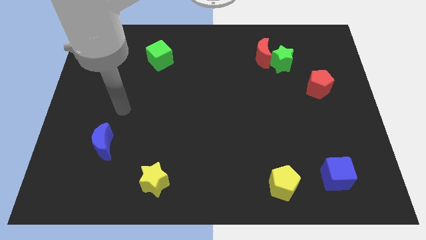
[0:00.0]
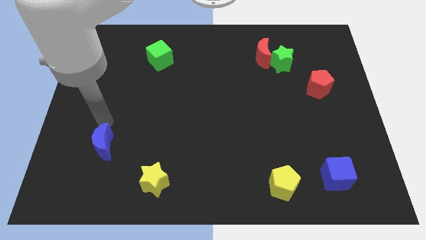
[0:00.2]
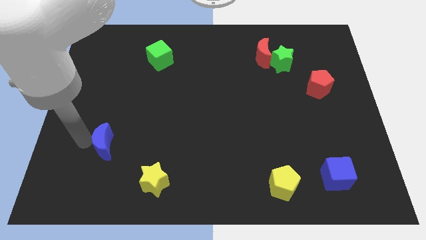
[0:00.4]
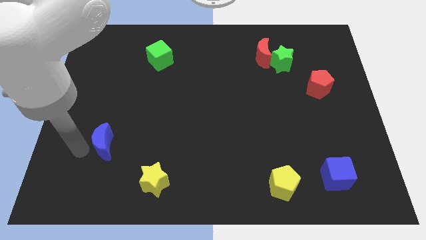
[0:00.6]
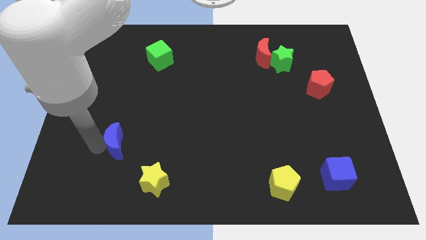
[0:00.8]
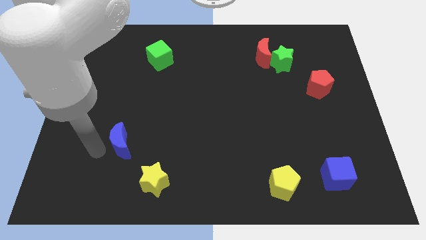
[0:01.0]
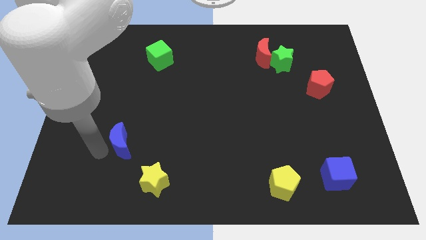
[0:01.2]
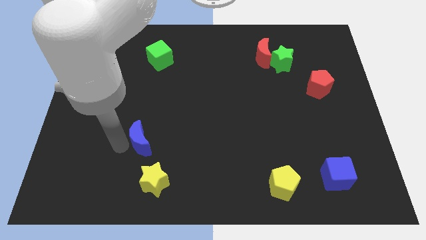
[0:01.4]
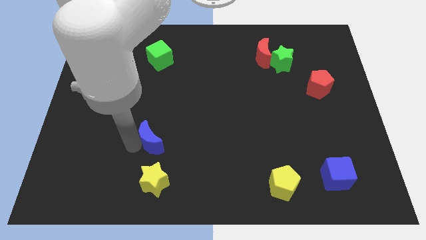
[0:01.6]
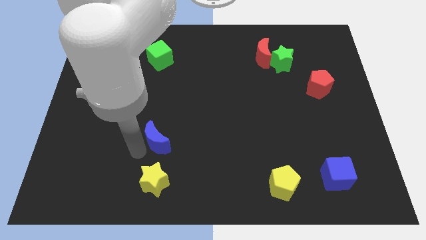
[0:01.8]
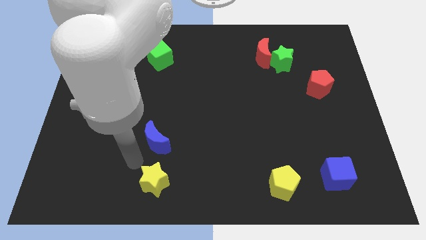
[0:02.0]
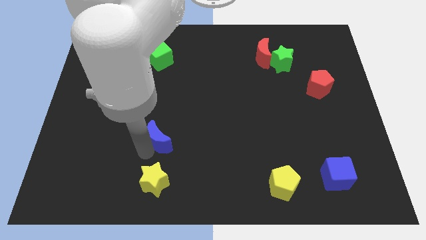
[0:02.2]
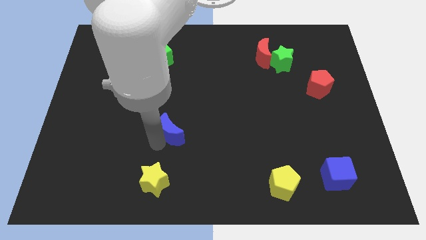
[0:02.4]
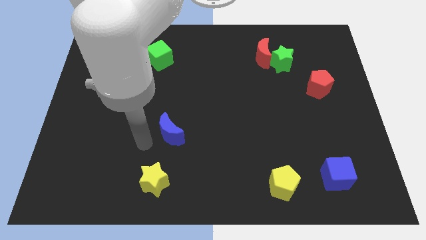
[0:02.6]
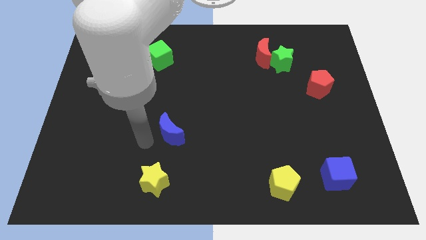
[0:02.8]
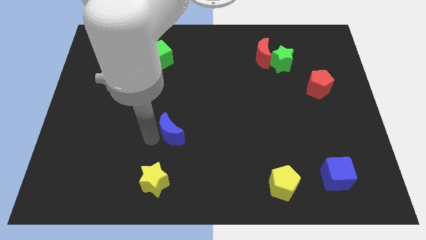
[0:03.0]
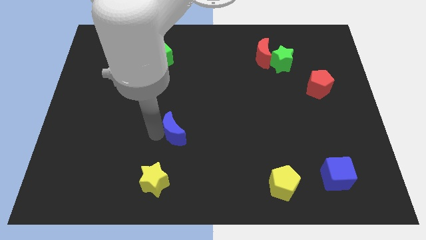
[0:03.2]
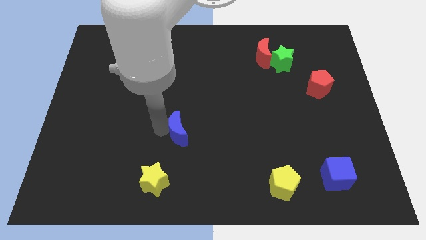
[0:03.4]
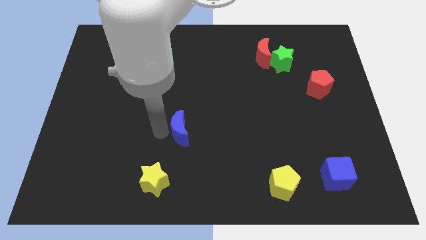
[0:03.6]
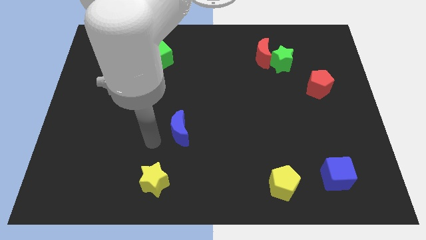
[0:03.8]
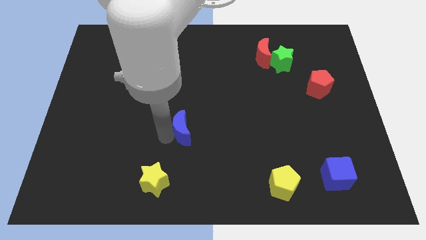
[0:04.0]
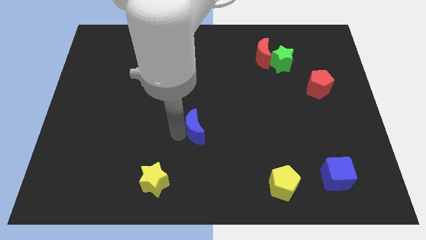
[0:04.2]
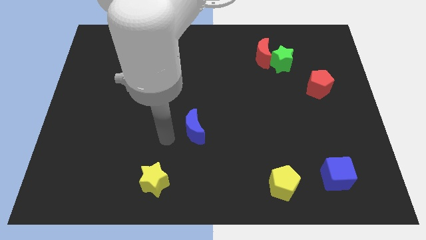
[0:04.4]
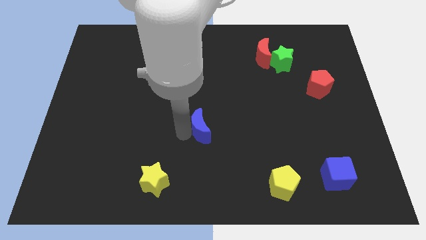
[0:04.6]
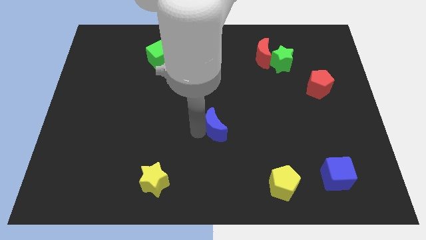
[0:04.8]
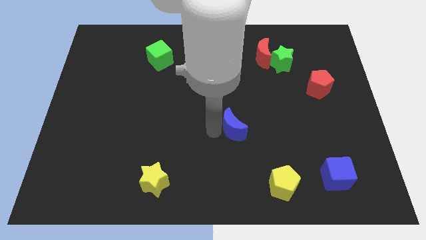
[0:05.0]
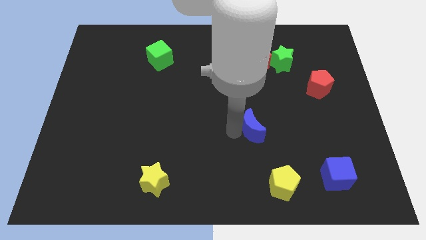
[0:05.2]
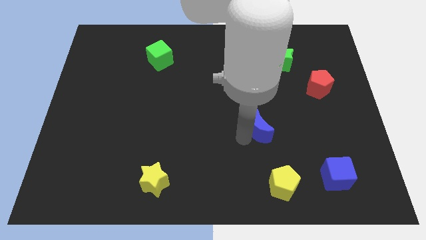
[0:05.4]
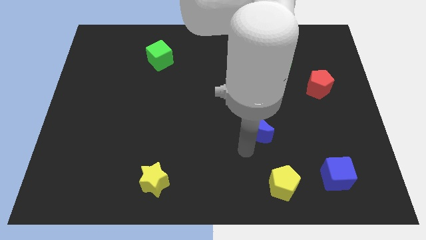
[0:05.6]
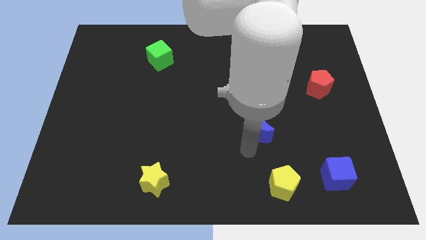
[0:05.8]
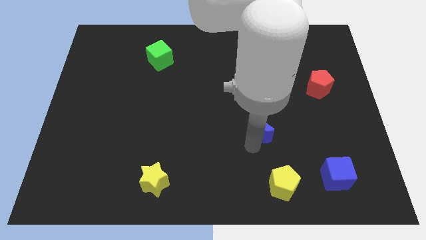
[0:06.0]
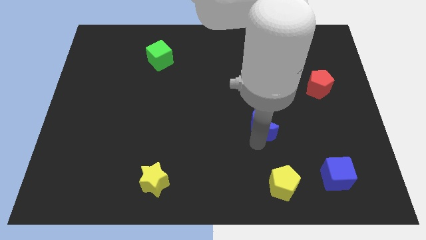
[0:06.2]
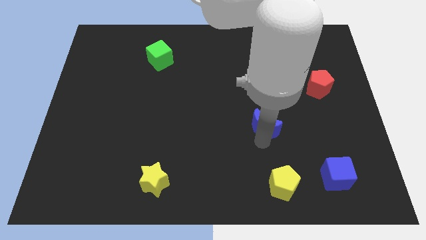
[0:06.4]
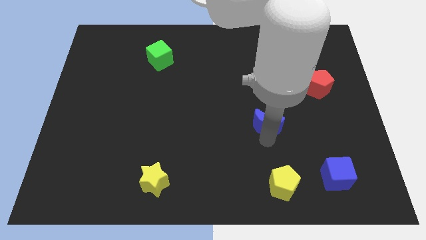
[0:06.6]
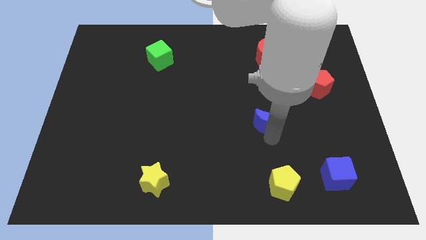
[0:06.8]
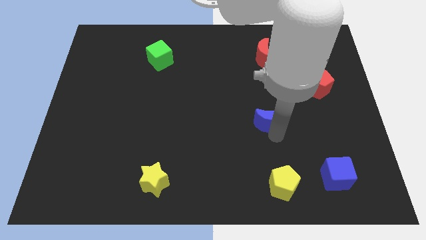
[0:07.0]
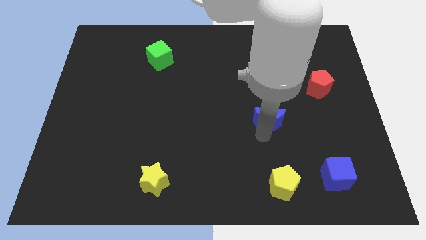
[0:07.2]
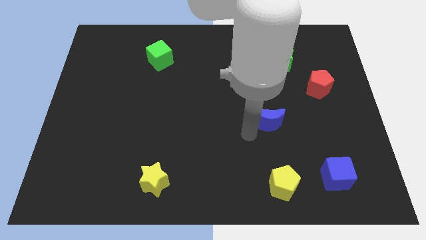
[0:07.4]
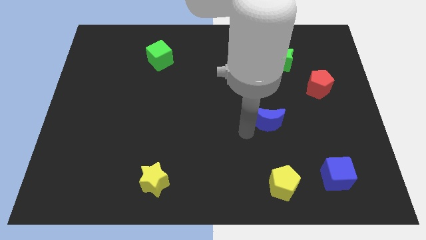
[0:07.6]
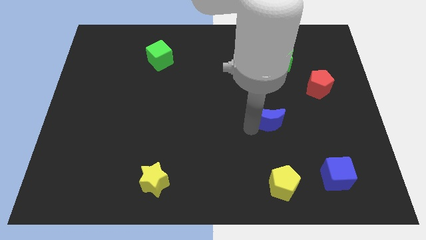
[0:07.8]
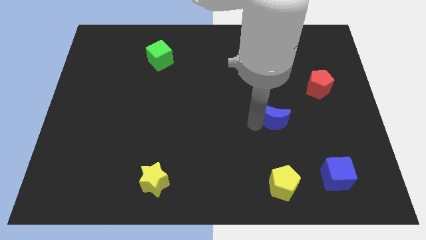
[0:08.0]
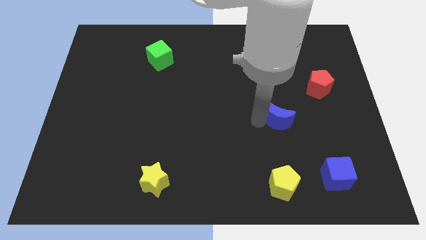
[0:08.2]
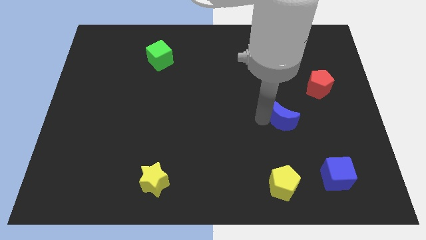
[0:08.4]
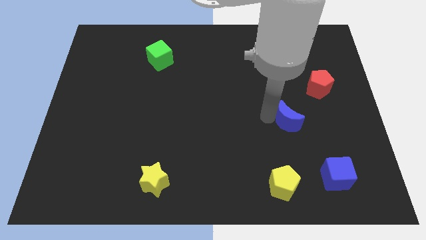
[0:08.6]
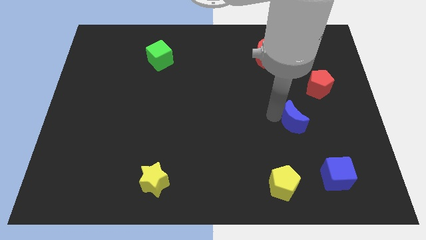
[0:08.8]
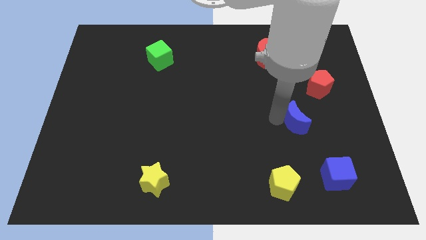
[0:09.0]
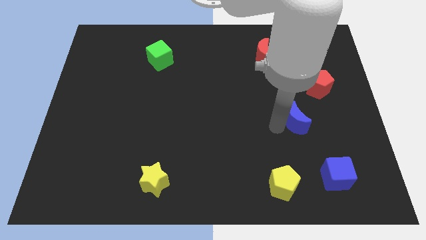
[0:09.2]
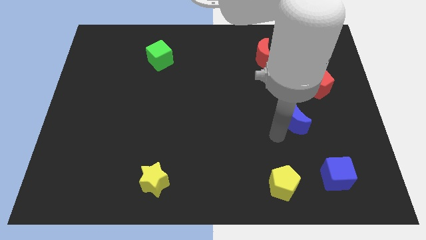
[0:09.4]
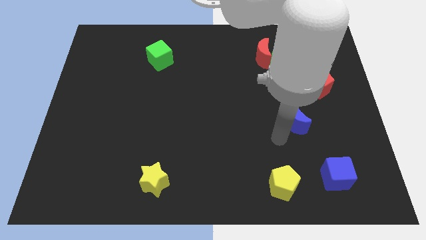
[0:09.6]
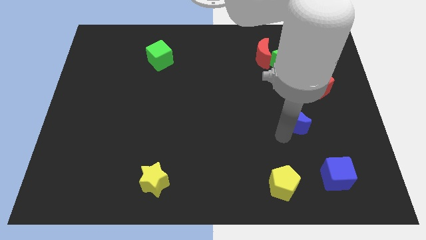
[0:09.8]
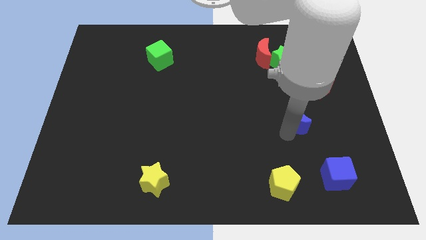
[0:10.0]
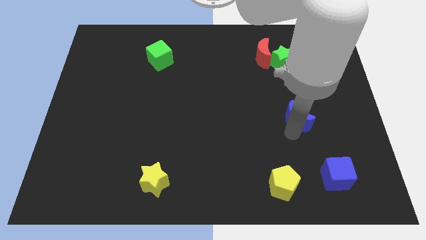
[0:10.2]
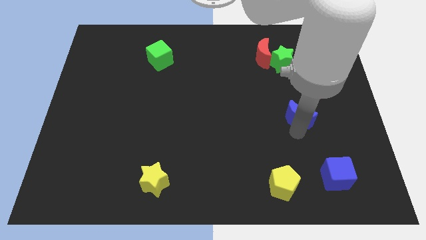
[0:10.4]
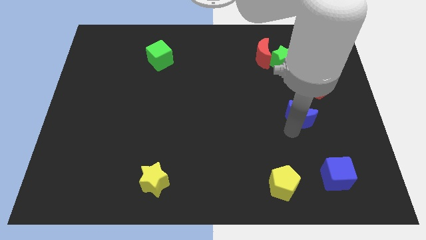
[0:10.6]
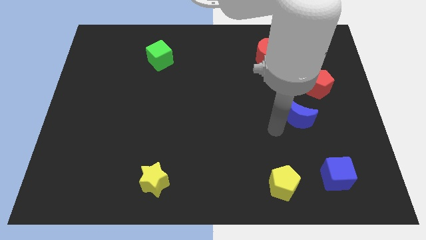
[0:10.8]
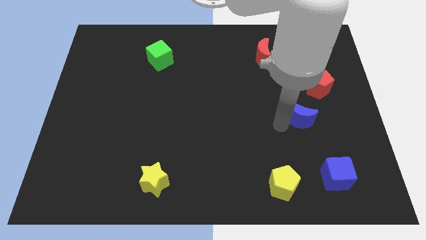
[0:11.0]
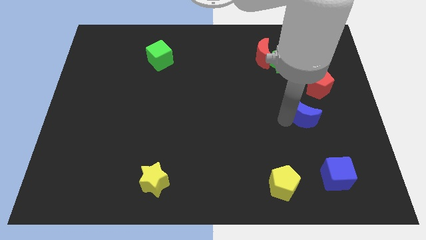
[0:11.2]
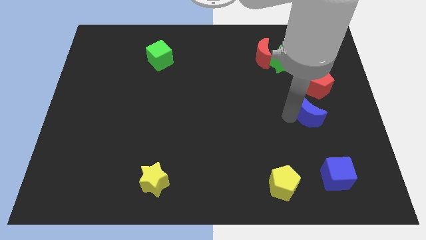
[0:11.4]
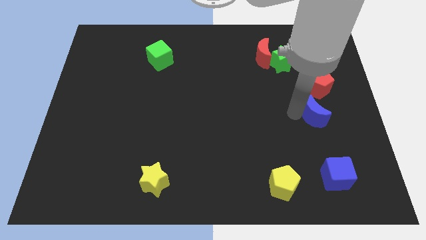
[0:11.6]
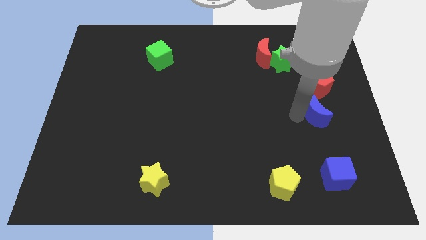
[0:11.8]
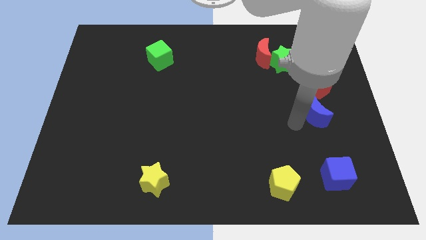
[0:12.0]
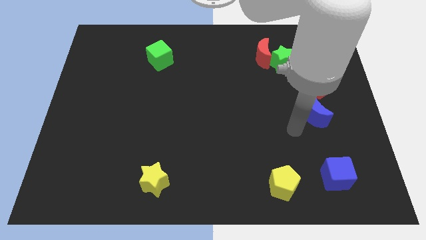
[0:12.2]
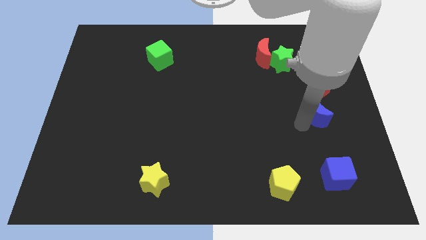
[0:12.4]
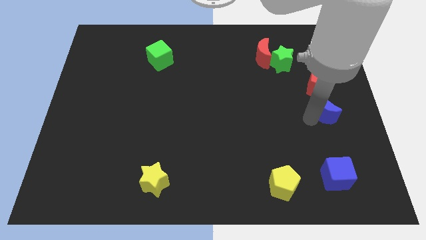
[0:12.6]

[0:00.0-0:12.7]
slide the blue moon to the right side of the board
